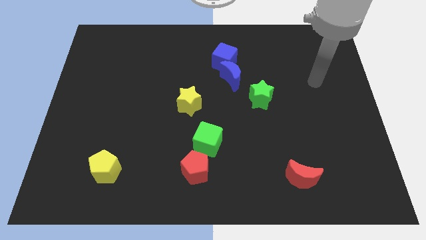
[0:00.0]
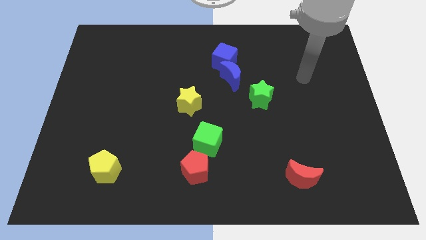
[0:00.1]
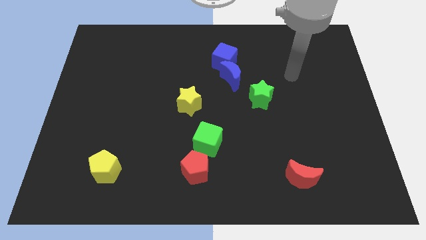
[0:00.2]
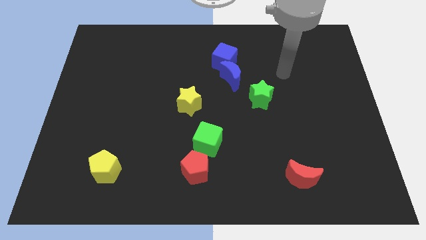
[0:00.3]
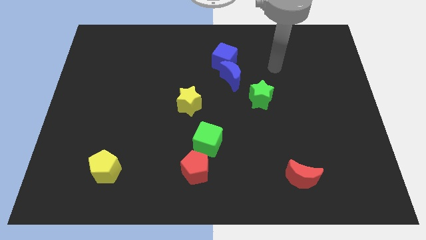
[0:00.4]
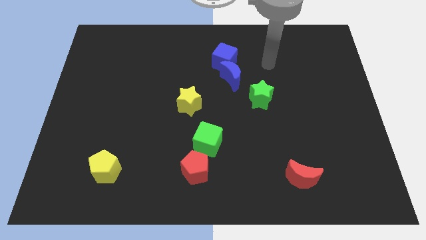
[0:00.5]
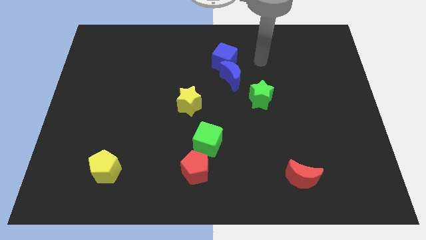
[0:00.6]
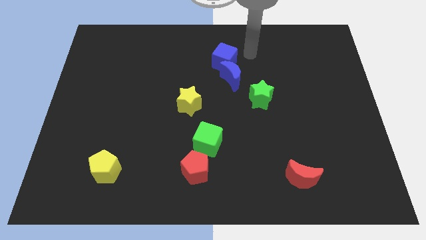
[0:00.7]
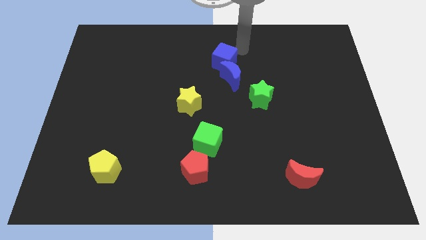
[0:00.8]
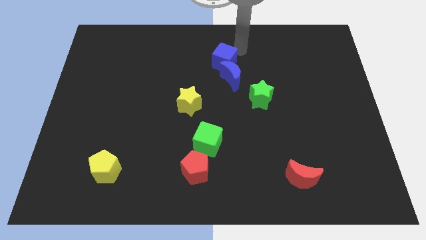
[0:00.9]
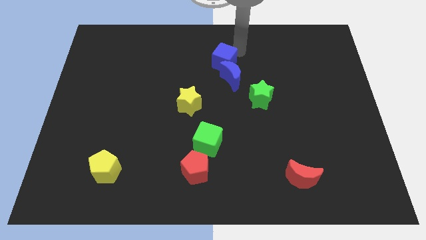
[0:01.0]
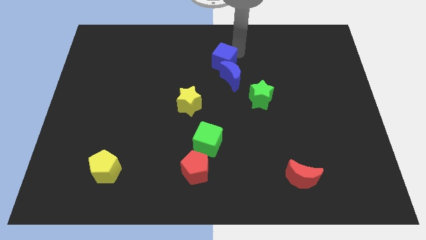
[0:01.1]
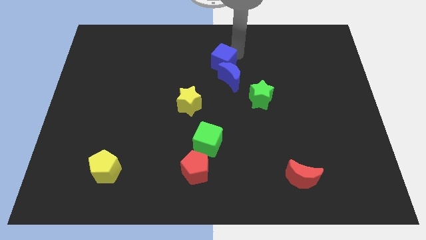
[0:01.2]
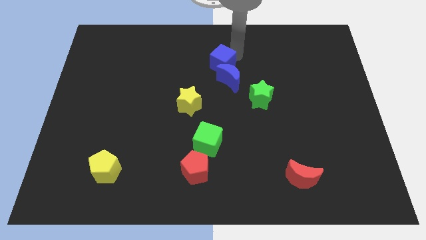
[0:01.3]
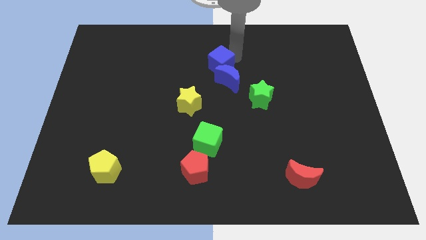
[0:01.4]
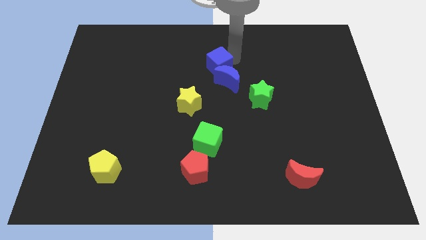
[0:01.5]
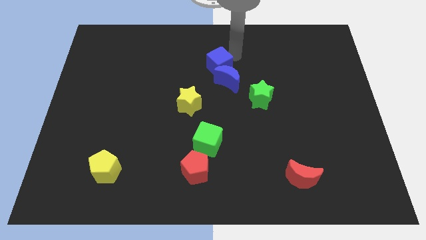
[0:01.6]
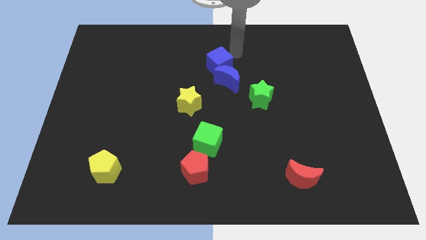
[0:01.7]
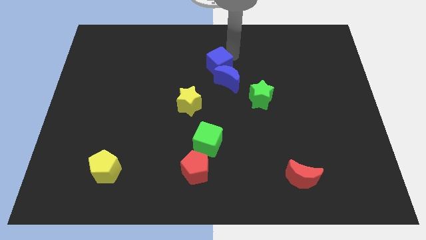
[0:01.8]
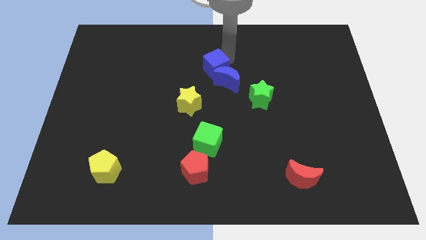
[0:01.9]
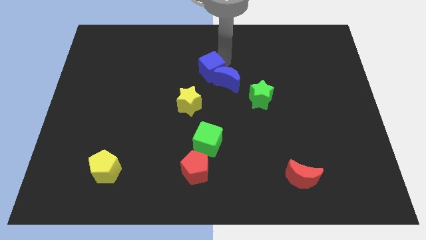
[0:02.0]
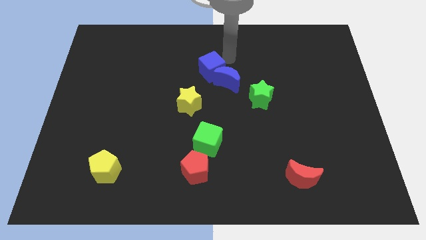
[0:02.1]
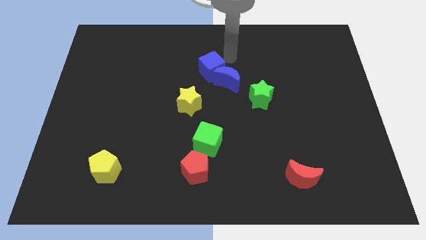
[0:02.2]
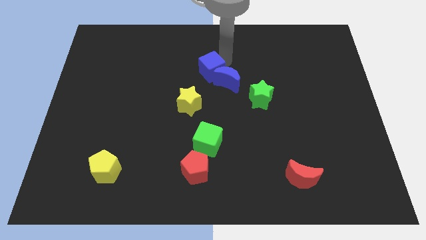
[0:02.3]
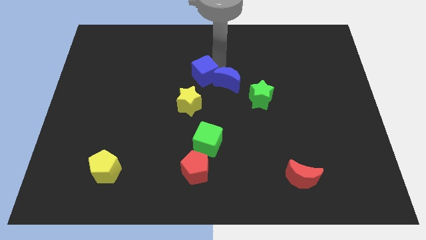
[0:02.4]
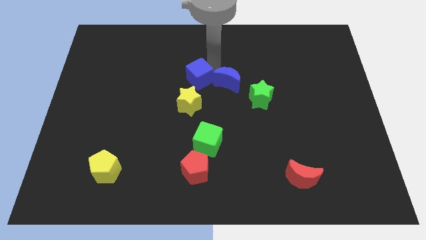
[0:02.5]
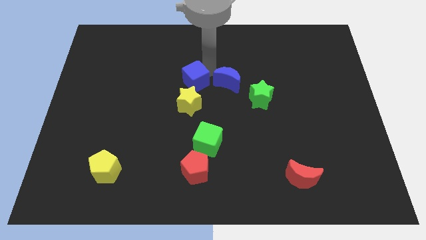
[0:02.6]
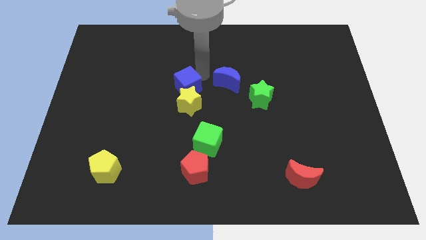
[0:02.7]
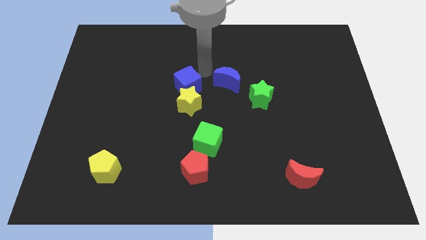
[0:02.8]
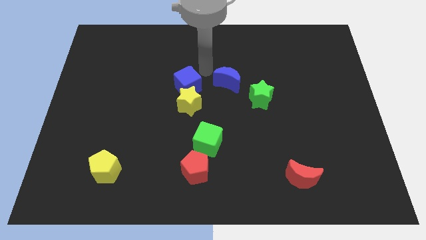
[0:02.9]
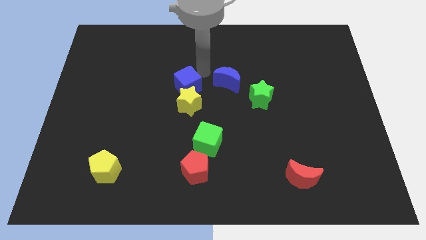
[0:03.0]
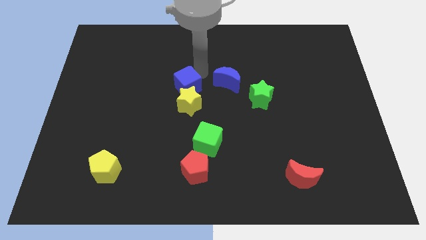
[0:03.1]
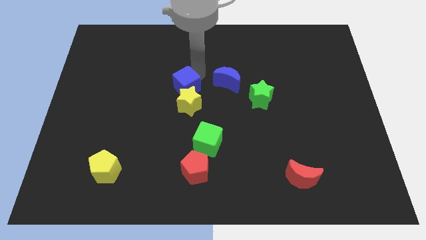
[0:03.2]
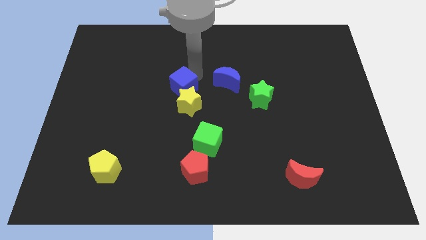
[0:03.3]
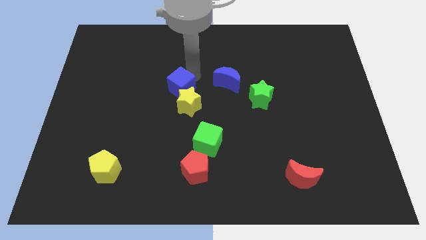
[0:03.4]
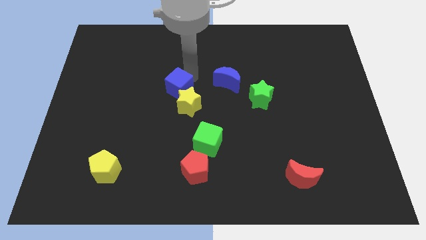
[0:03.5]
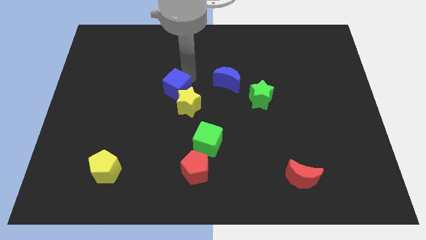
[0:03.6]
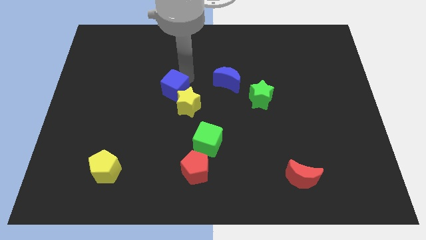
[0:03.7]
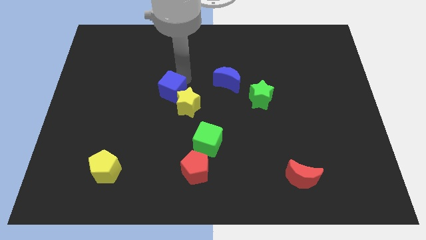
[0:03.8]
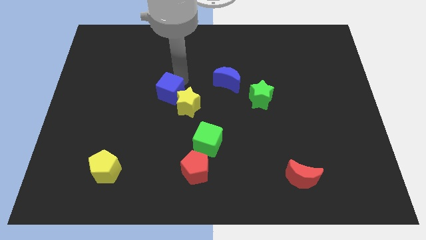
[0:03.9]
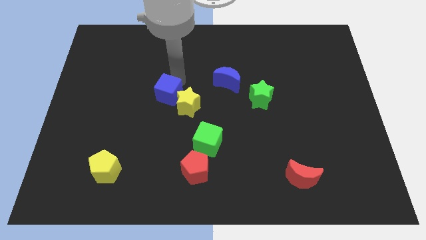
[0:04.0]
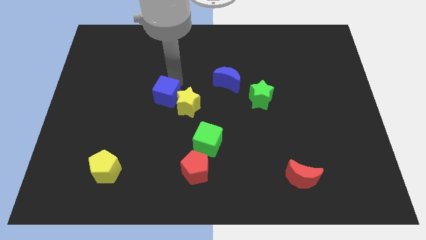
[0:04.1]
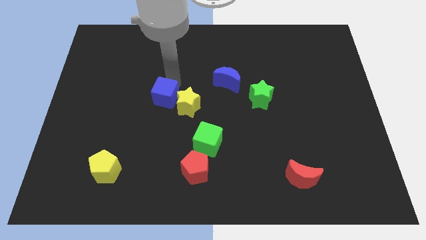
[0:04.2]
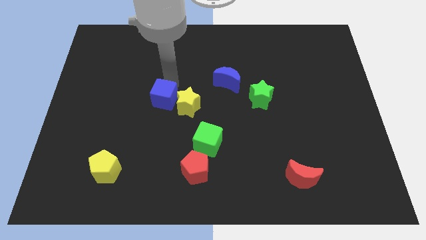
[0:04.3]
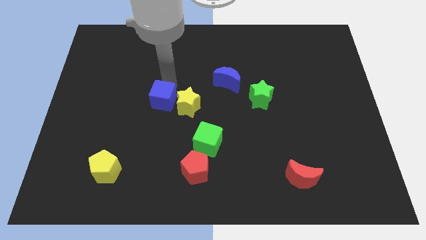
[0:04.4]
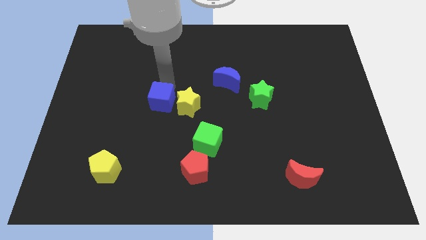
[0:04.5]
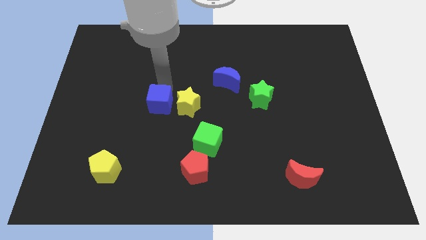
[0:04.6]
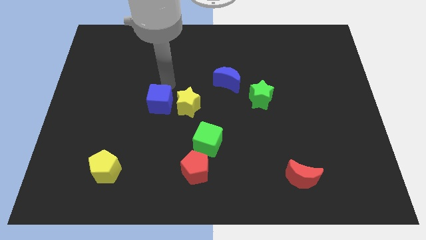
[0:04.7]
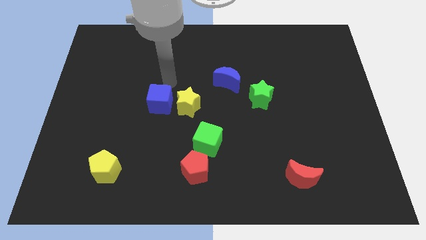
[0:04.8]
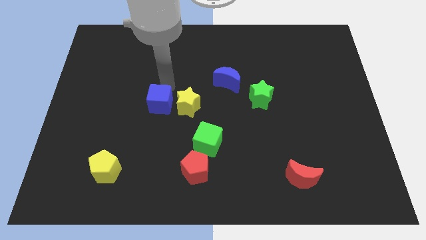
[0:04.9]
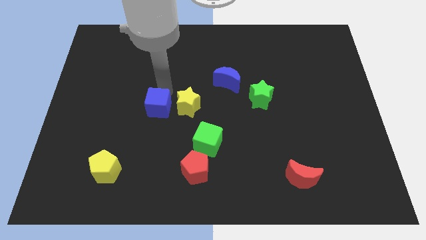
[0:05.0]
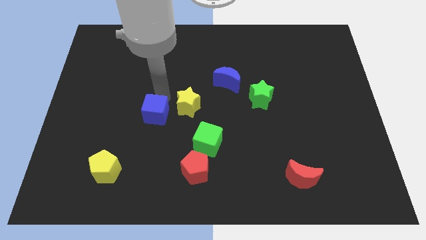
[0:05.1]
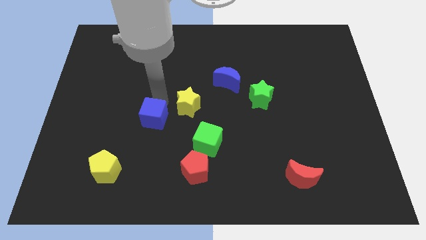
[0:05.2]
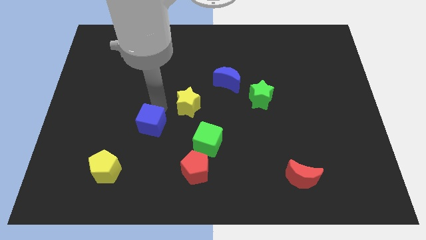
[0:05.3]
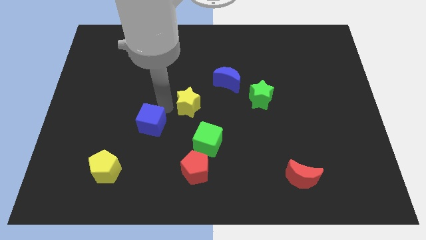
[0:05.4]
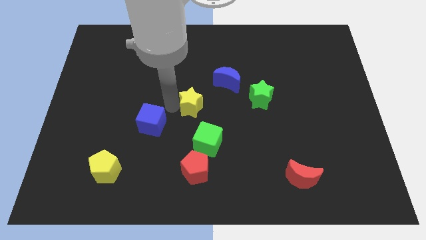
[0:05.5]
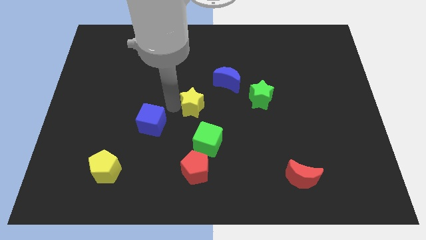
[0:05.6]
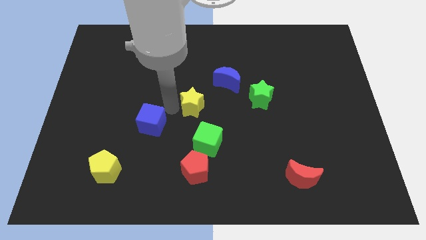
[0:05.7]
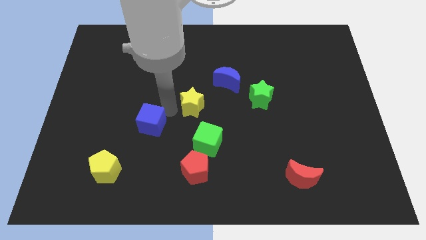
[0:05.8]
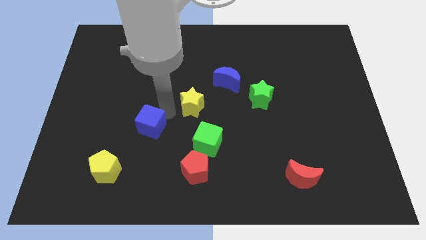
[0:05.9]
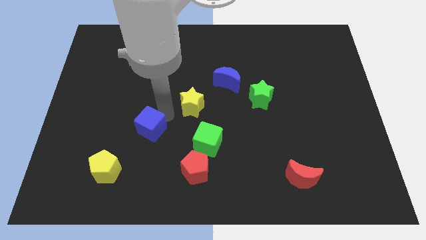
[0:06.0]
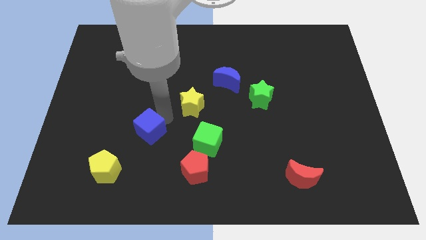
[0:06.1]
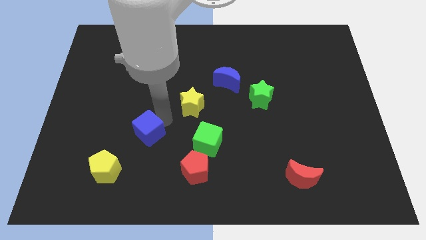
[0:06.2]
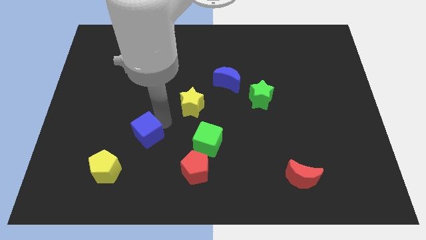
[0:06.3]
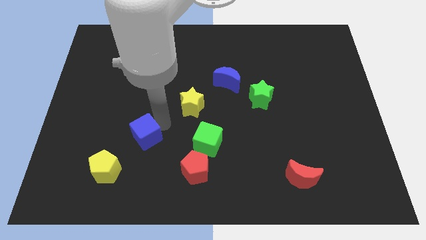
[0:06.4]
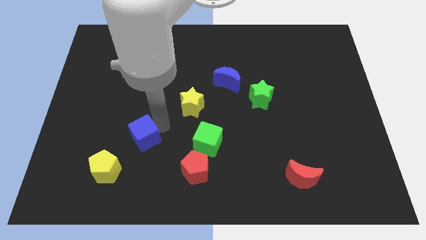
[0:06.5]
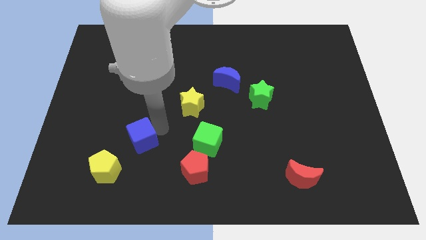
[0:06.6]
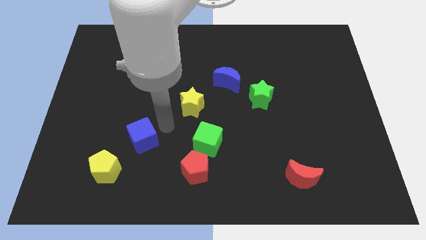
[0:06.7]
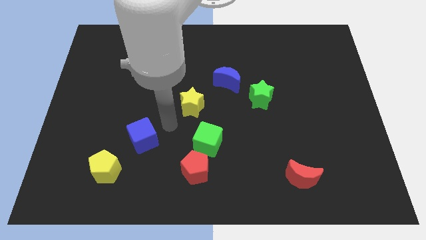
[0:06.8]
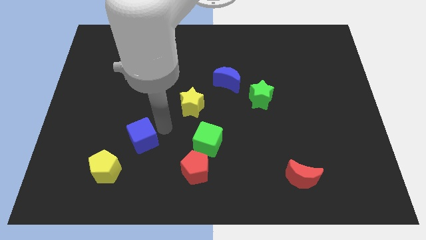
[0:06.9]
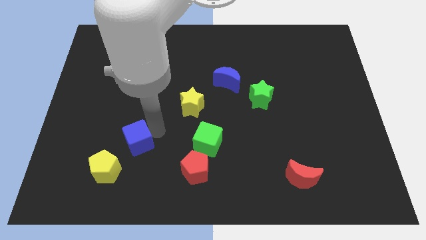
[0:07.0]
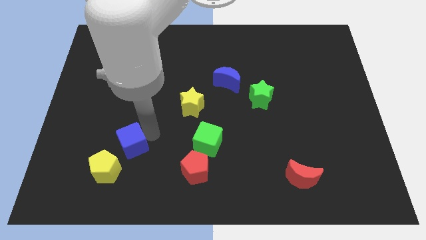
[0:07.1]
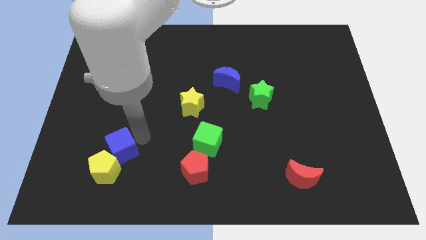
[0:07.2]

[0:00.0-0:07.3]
move the blue cube next to the yellow pentagon

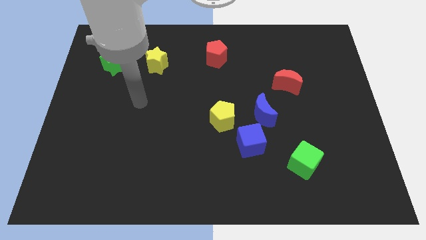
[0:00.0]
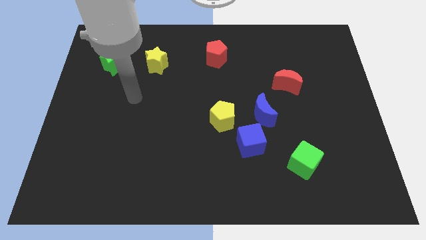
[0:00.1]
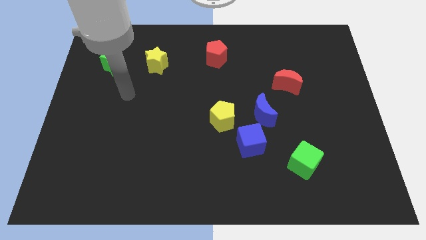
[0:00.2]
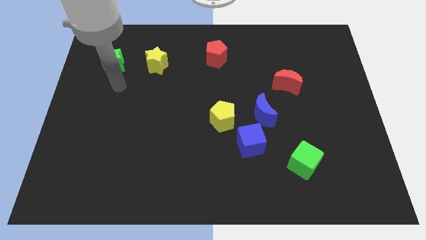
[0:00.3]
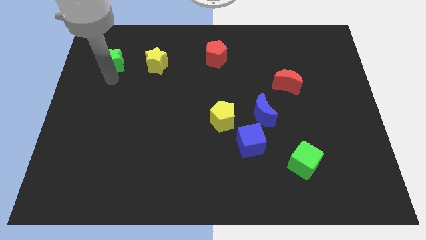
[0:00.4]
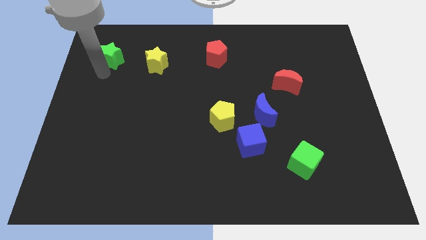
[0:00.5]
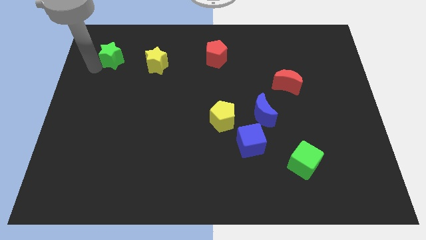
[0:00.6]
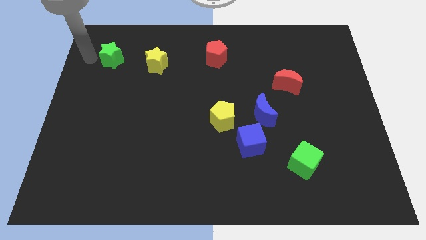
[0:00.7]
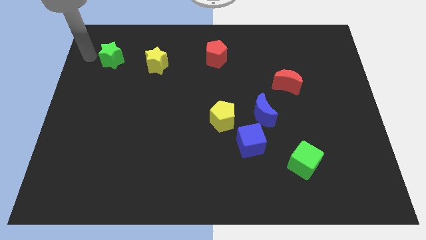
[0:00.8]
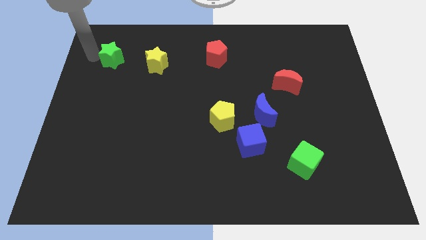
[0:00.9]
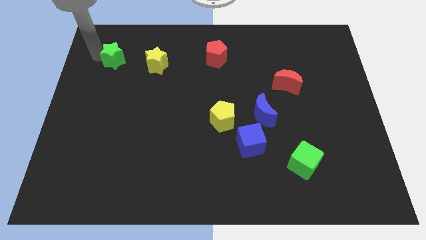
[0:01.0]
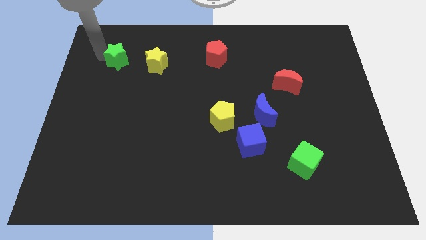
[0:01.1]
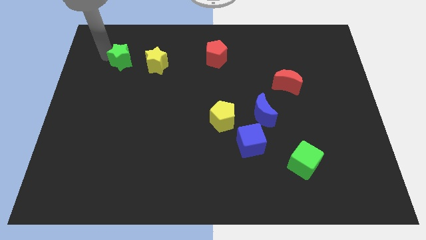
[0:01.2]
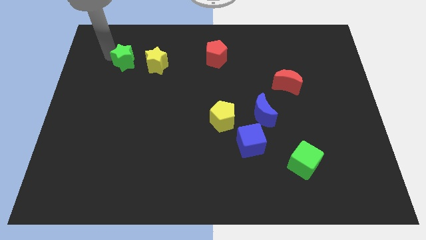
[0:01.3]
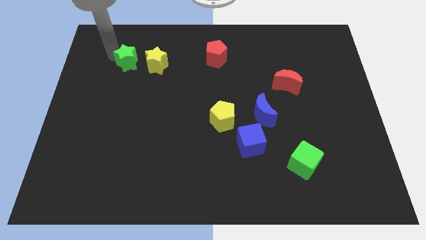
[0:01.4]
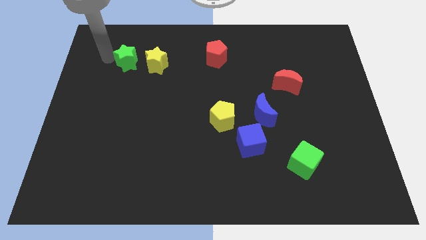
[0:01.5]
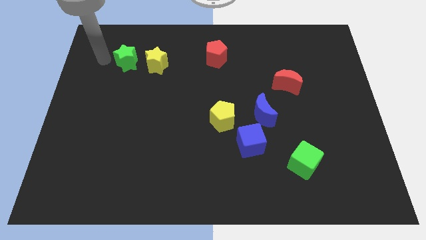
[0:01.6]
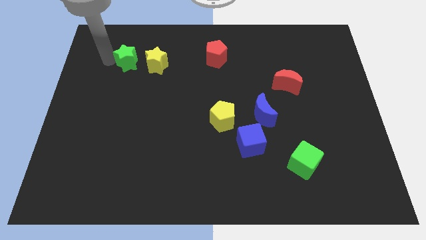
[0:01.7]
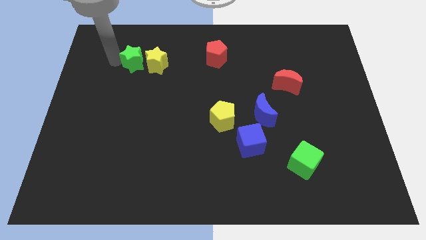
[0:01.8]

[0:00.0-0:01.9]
slide the green star towards the yellow star
